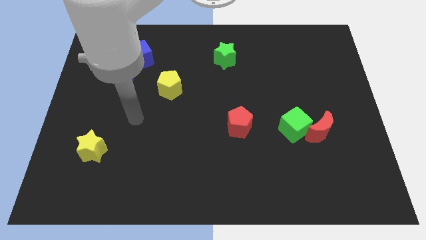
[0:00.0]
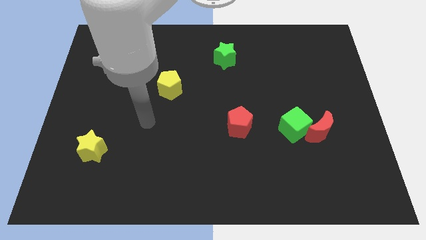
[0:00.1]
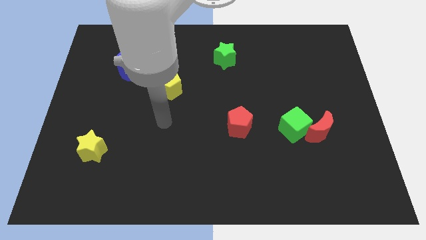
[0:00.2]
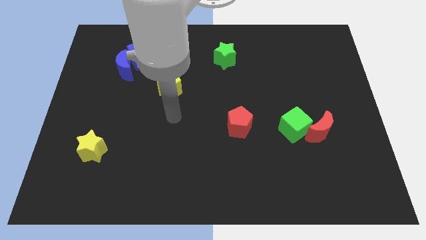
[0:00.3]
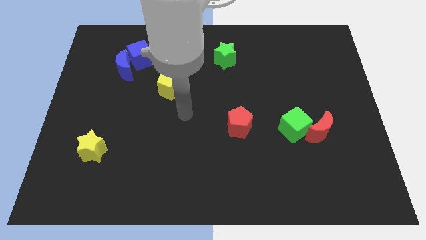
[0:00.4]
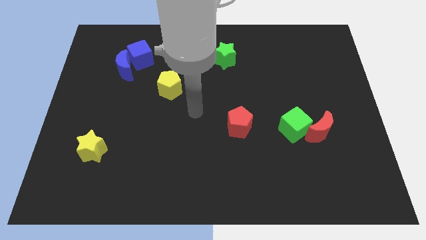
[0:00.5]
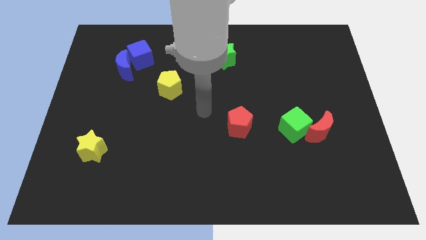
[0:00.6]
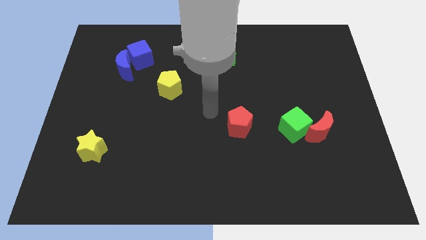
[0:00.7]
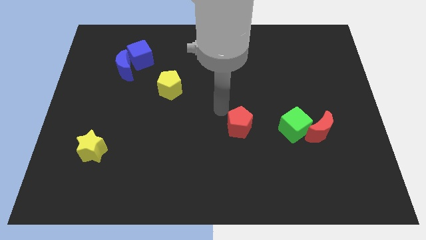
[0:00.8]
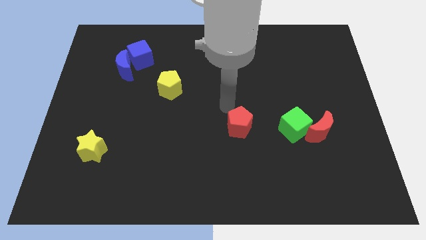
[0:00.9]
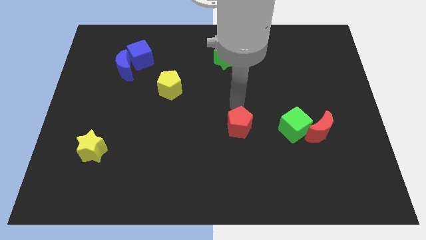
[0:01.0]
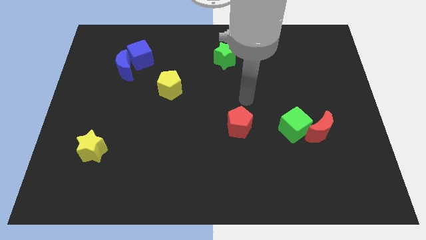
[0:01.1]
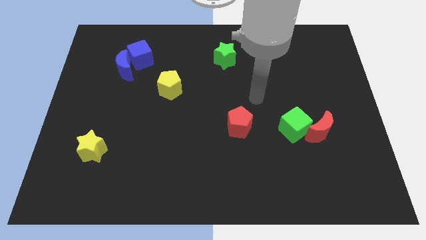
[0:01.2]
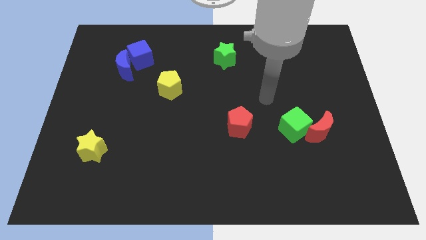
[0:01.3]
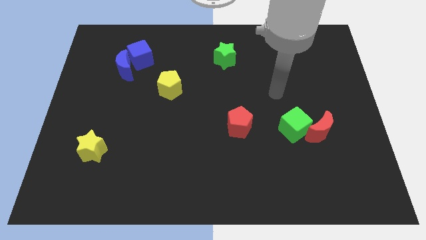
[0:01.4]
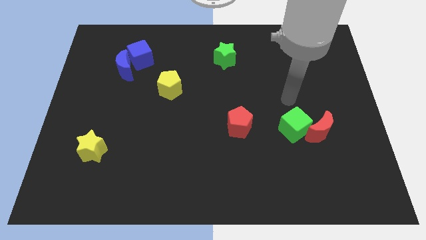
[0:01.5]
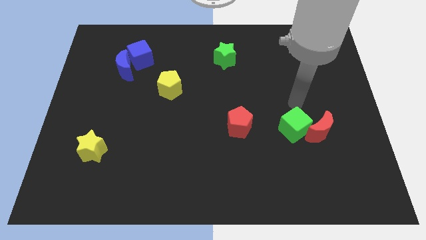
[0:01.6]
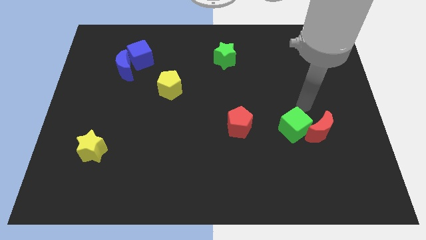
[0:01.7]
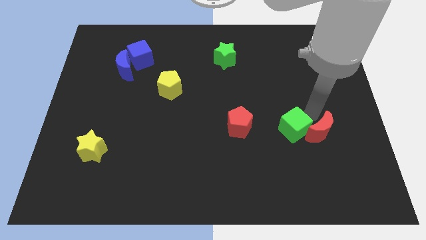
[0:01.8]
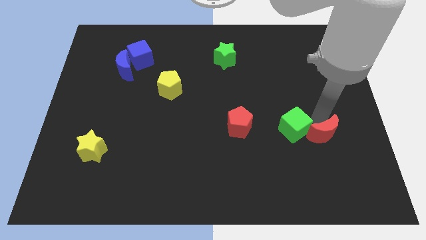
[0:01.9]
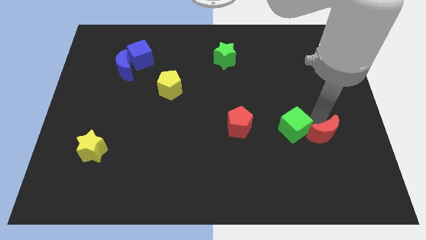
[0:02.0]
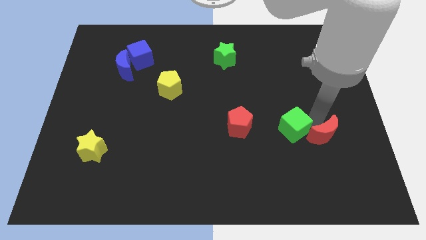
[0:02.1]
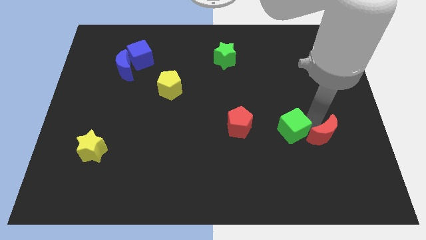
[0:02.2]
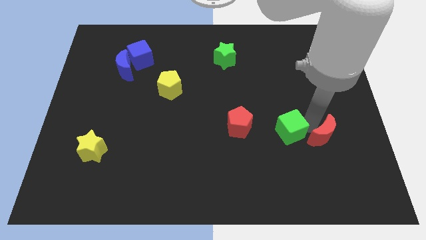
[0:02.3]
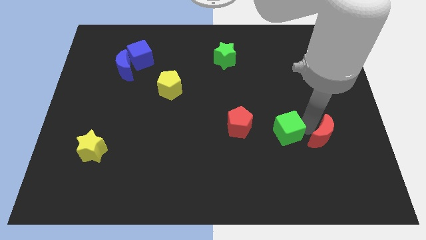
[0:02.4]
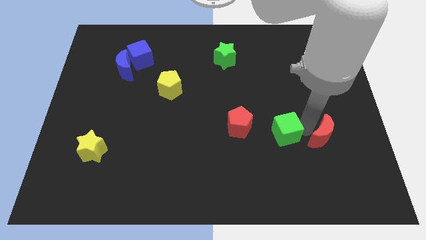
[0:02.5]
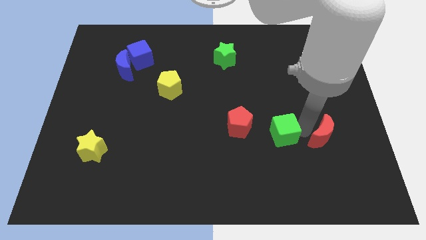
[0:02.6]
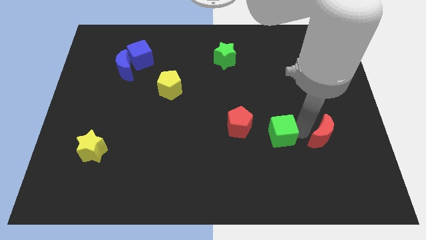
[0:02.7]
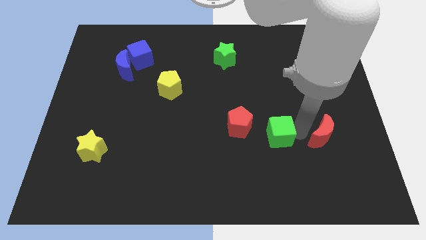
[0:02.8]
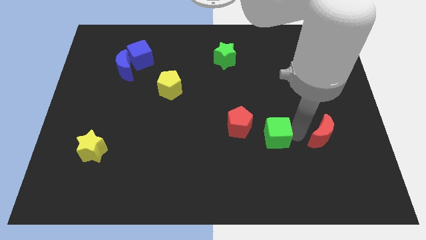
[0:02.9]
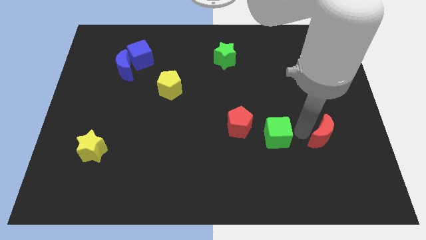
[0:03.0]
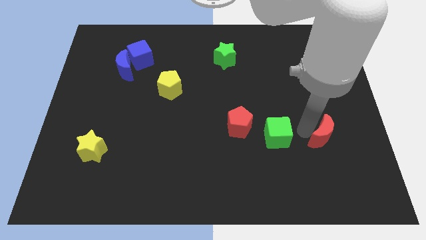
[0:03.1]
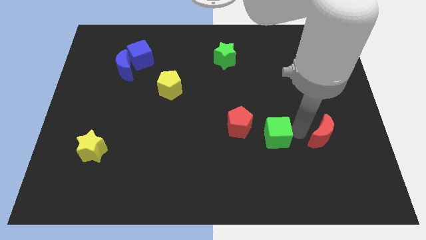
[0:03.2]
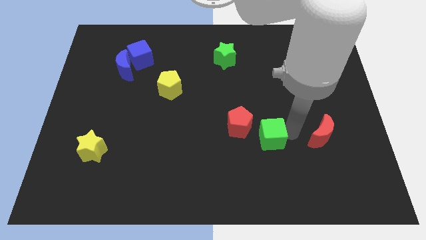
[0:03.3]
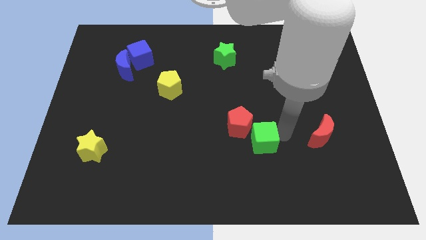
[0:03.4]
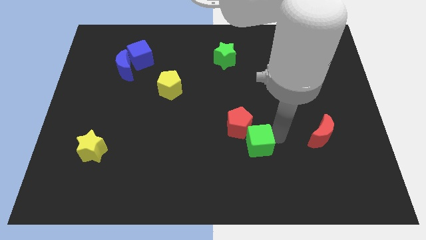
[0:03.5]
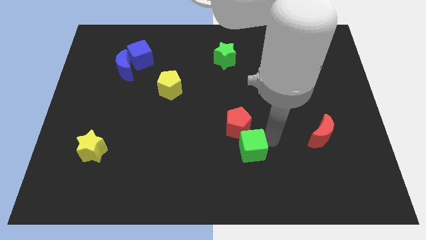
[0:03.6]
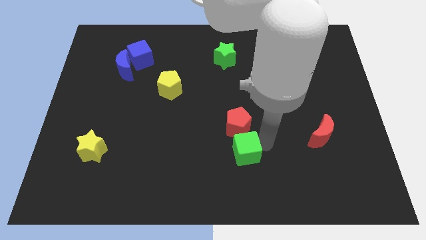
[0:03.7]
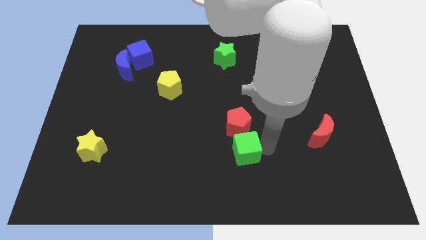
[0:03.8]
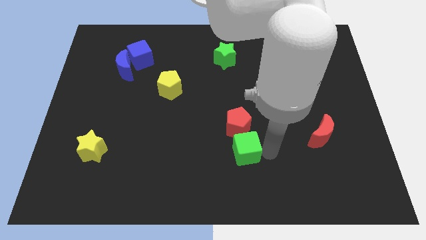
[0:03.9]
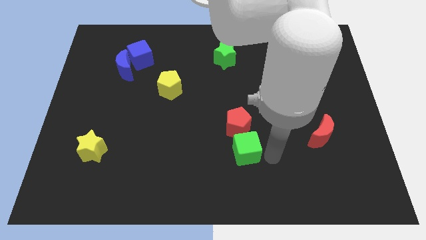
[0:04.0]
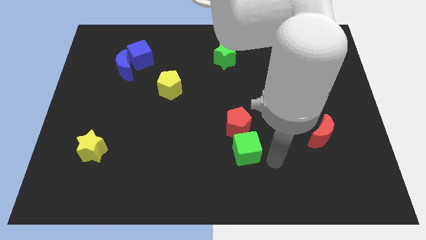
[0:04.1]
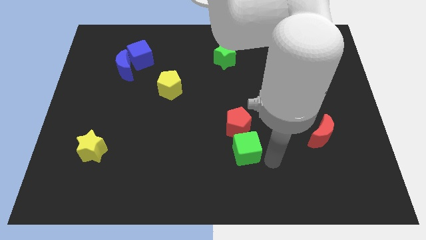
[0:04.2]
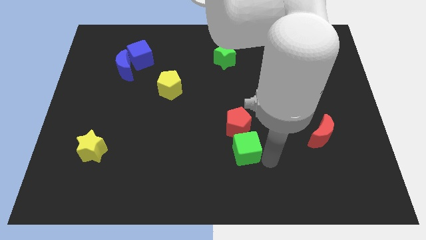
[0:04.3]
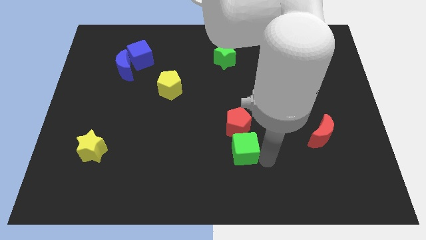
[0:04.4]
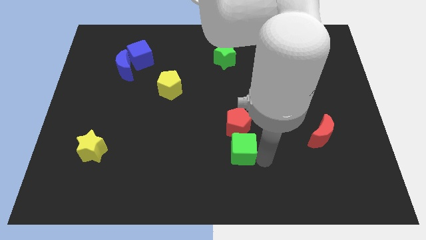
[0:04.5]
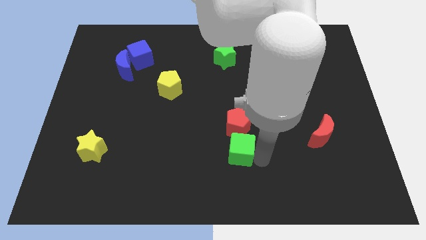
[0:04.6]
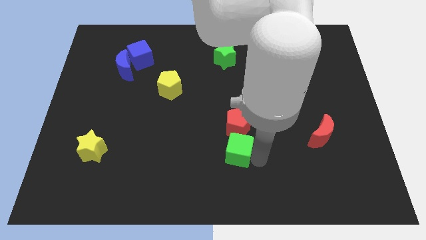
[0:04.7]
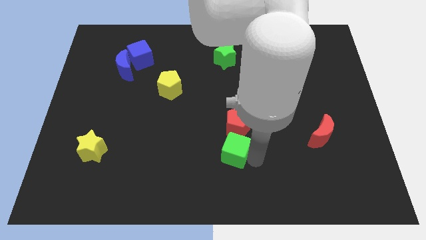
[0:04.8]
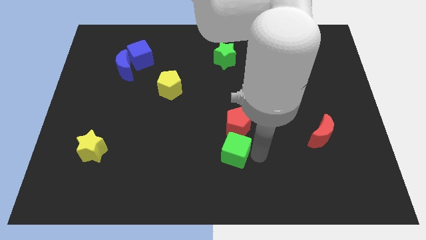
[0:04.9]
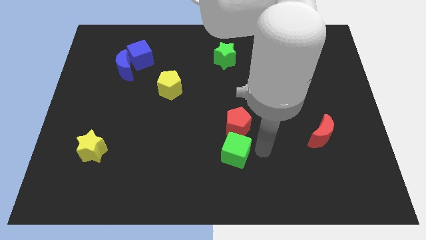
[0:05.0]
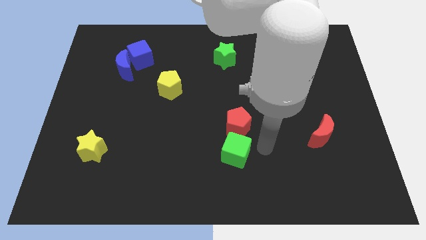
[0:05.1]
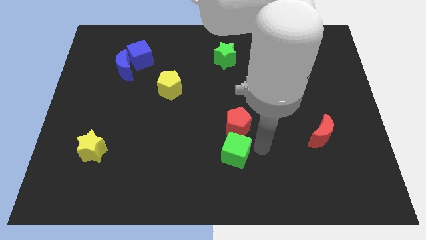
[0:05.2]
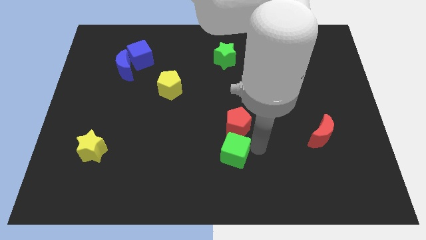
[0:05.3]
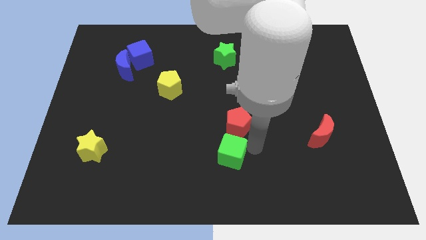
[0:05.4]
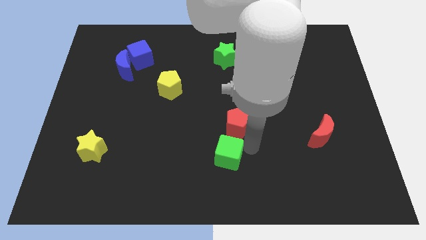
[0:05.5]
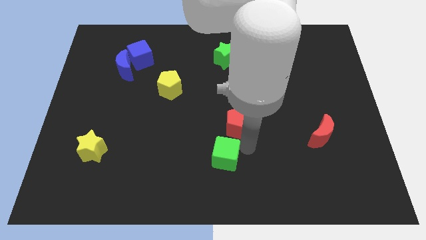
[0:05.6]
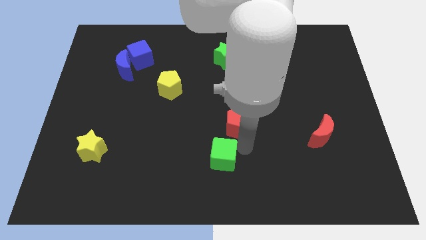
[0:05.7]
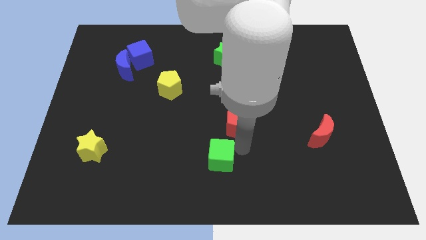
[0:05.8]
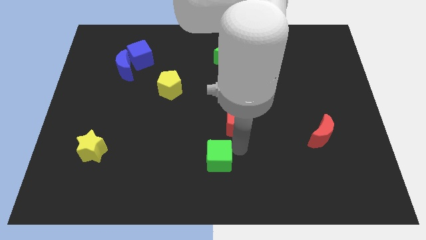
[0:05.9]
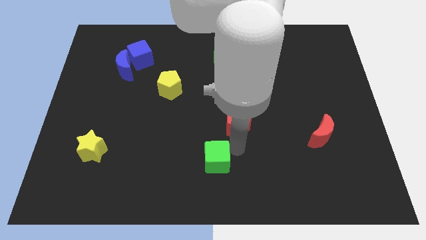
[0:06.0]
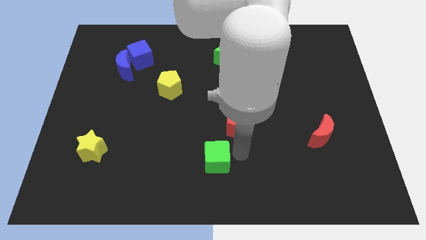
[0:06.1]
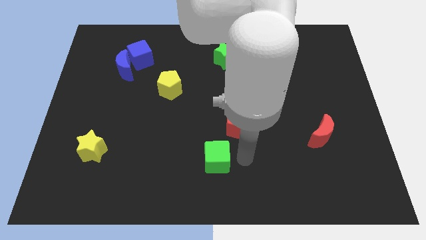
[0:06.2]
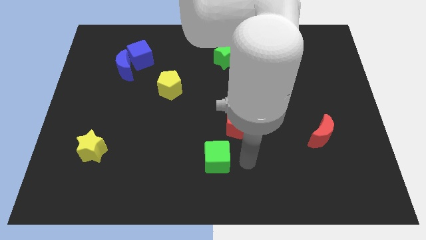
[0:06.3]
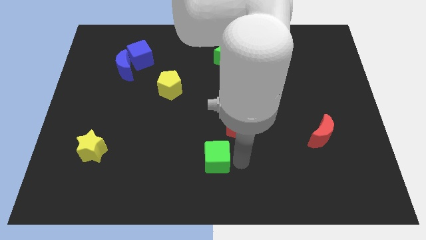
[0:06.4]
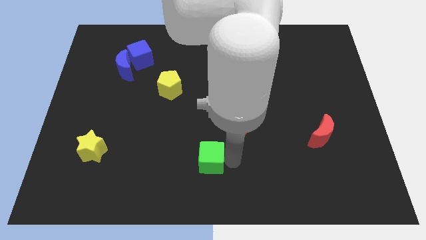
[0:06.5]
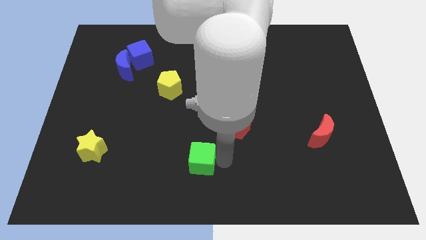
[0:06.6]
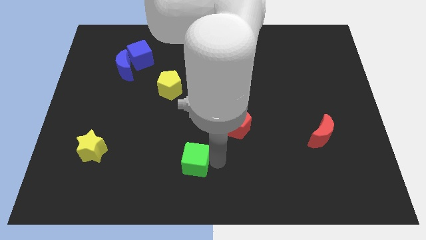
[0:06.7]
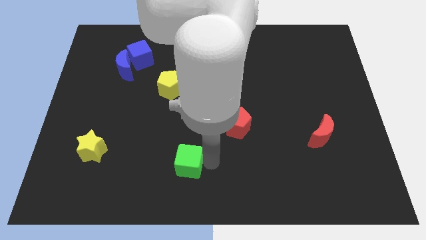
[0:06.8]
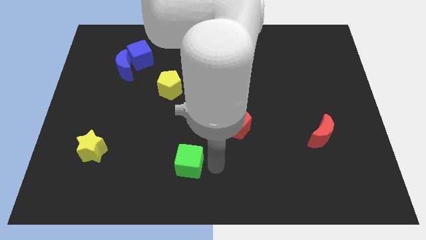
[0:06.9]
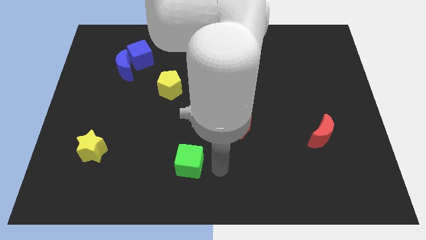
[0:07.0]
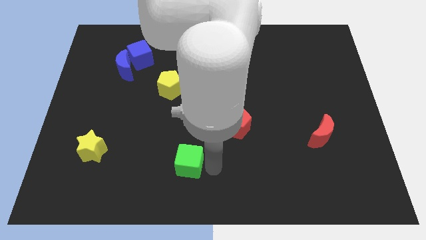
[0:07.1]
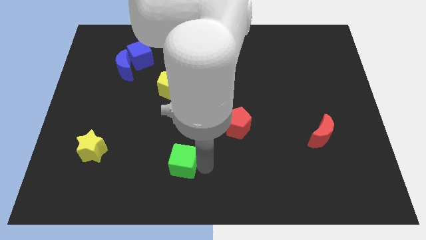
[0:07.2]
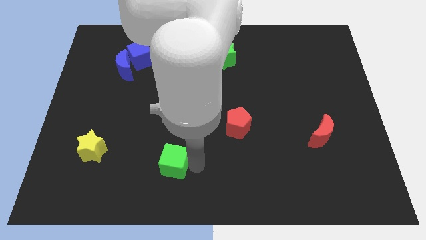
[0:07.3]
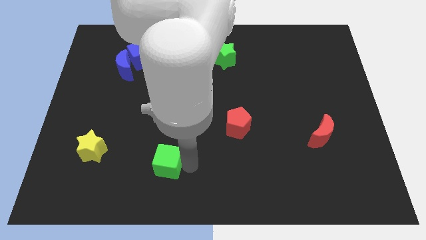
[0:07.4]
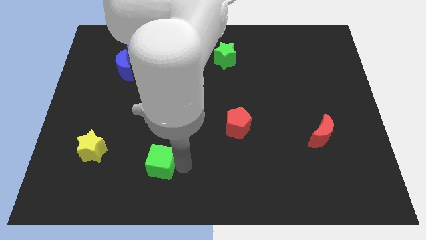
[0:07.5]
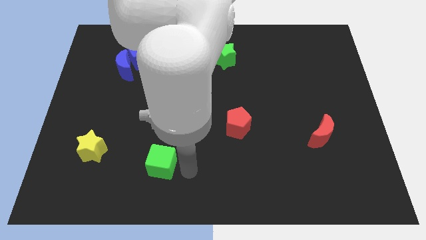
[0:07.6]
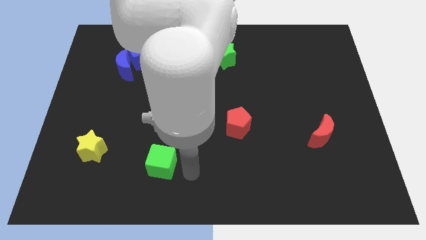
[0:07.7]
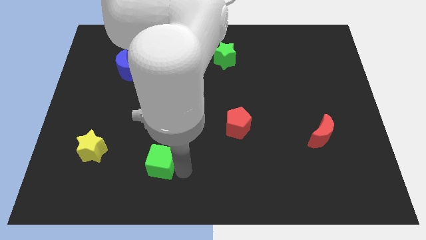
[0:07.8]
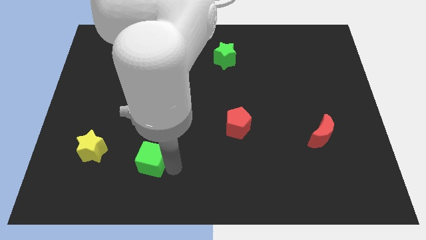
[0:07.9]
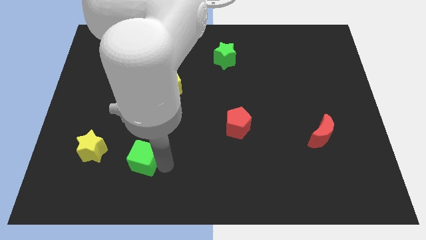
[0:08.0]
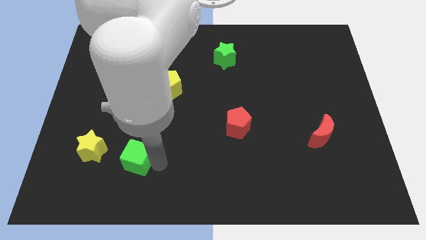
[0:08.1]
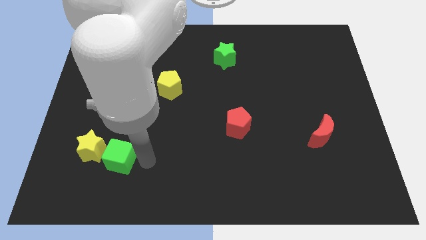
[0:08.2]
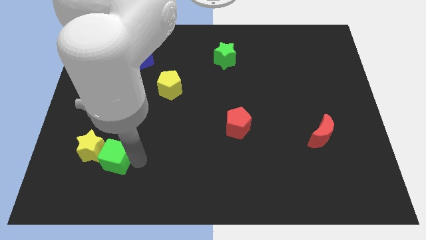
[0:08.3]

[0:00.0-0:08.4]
put the green cube close to the yellow star
